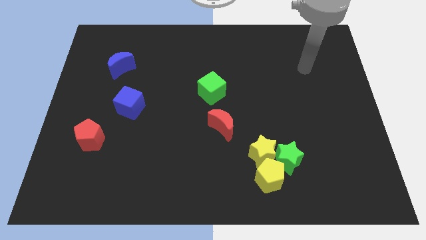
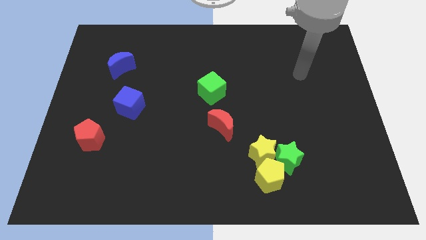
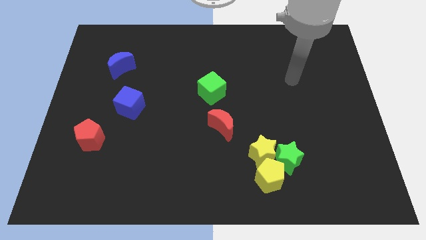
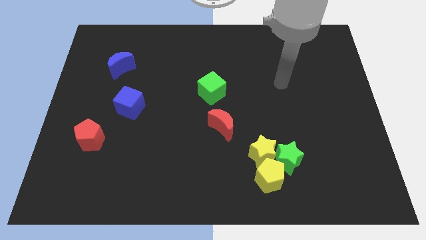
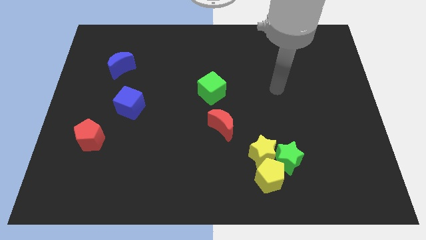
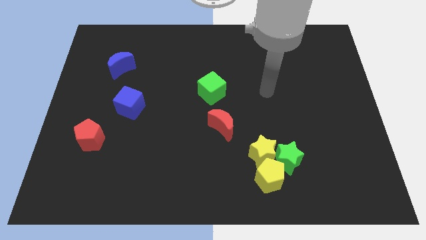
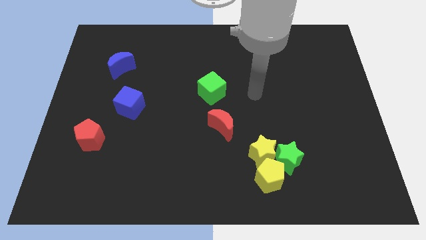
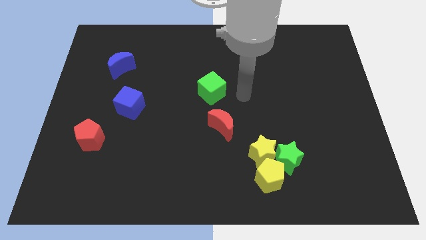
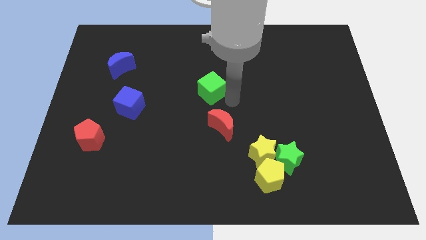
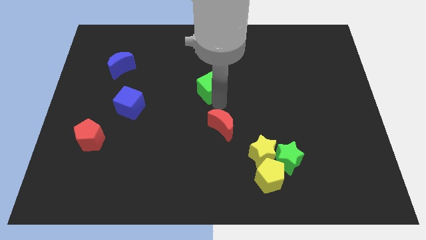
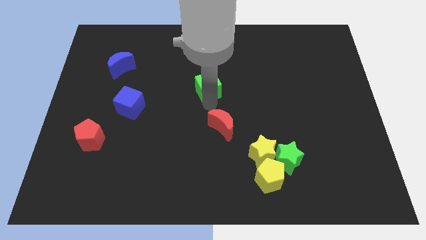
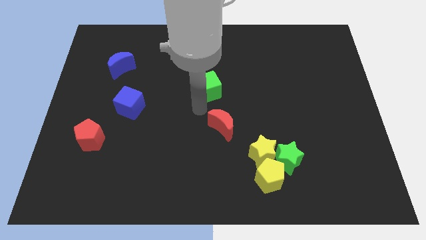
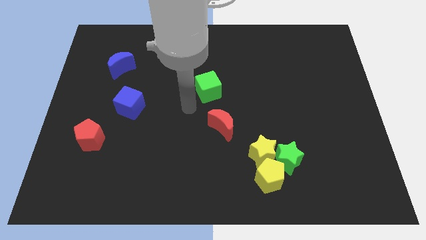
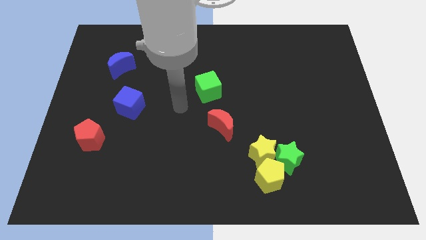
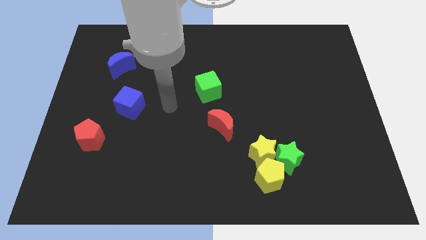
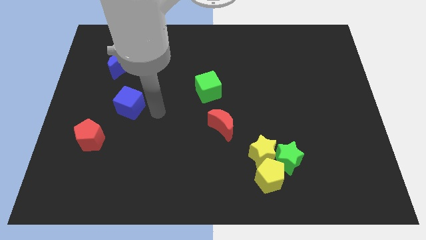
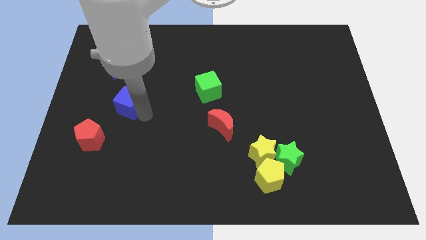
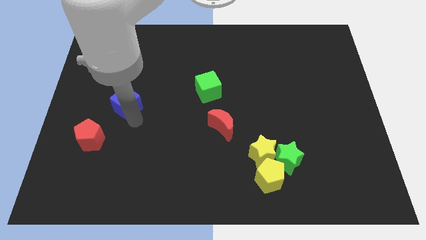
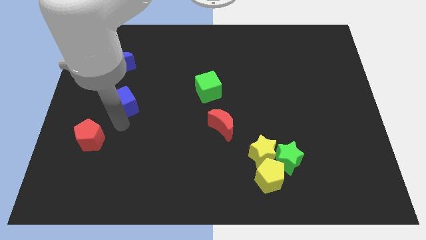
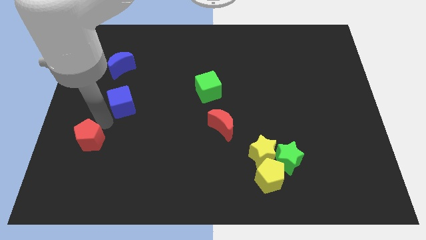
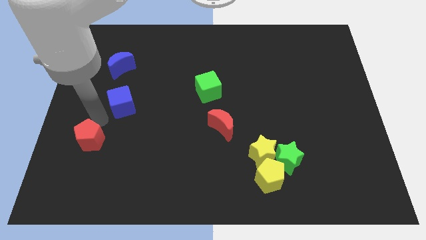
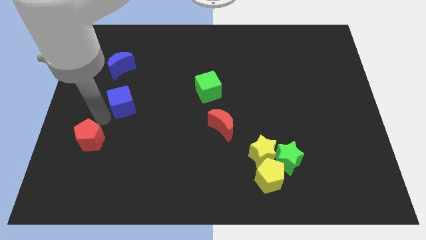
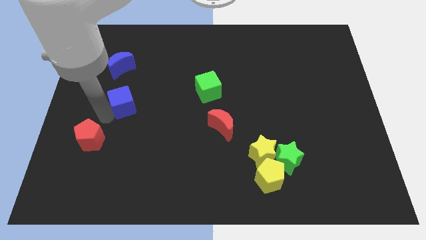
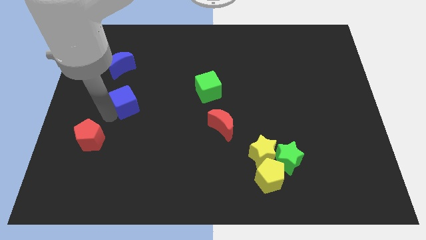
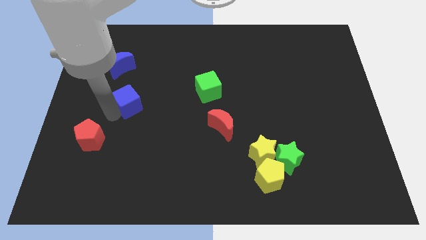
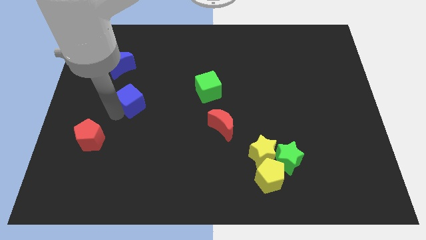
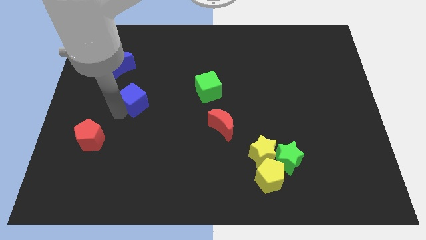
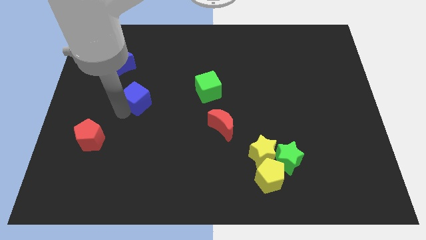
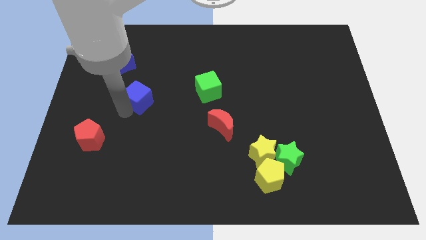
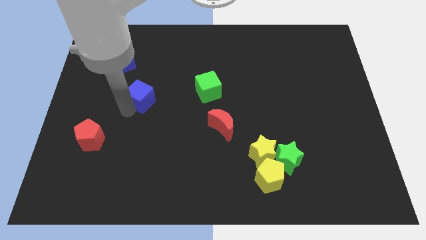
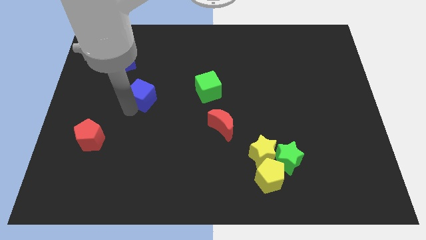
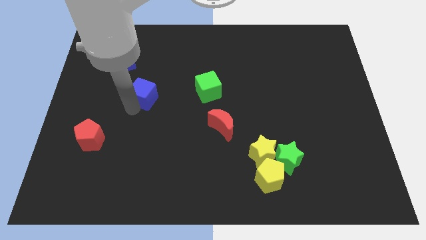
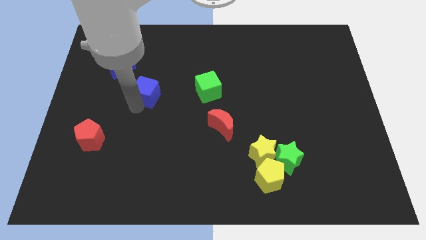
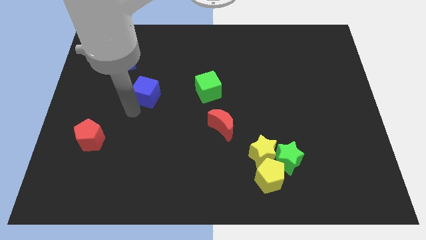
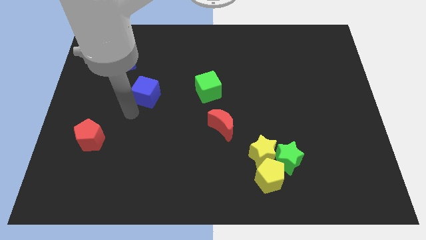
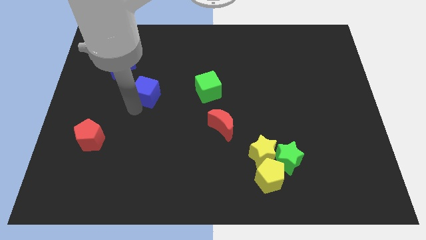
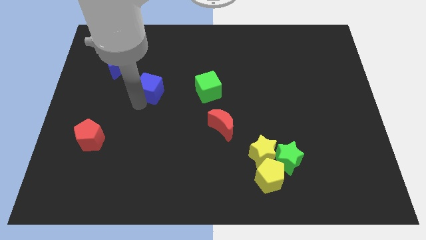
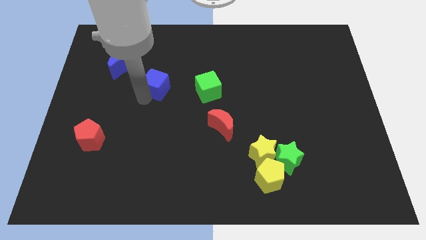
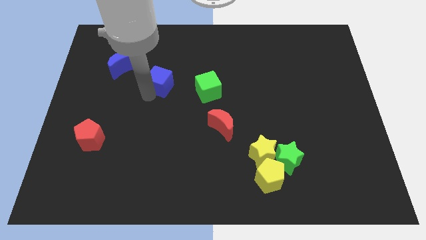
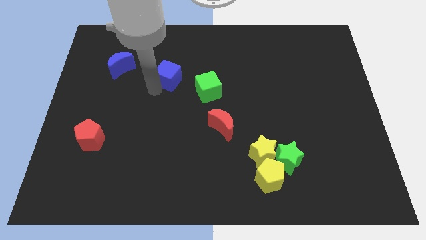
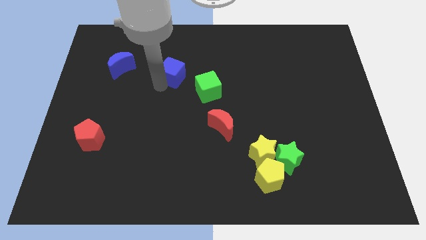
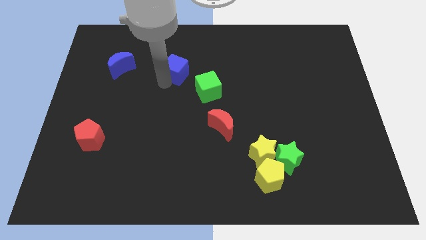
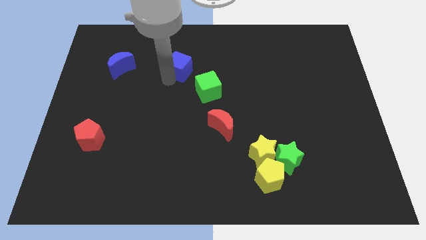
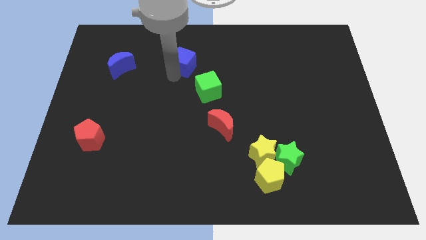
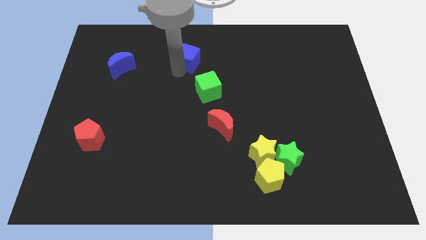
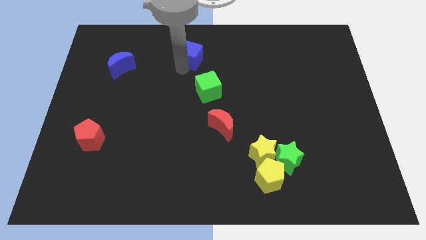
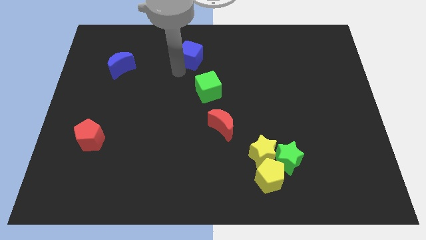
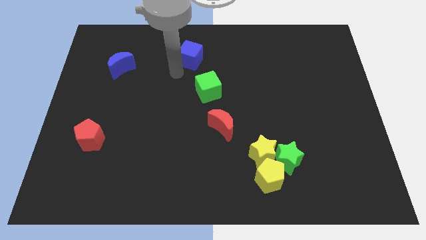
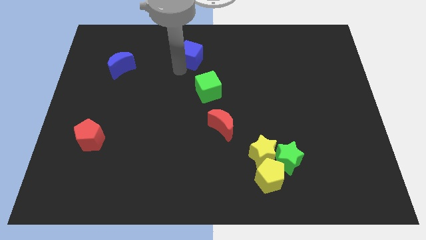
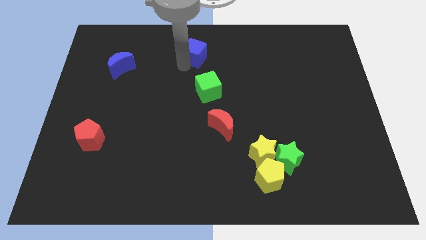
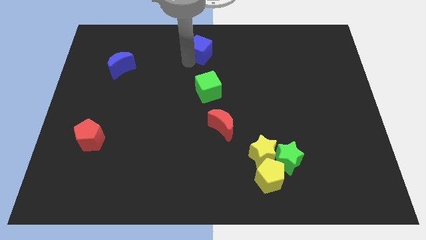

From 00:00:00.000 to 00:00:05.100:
slide the blue cube to the top side

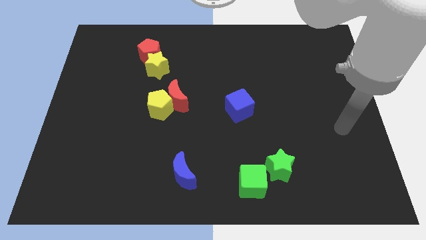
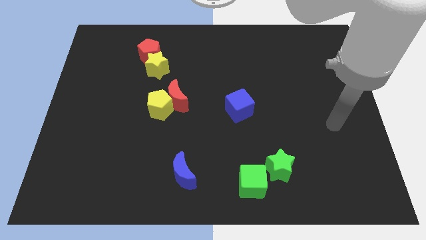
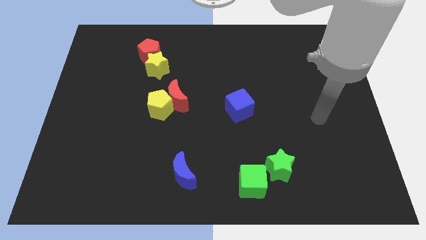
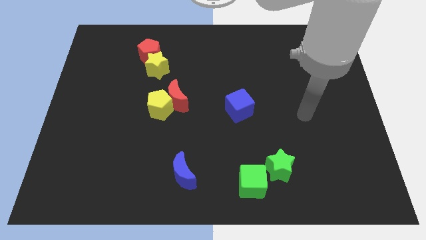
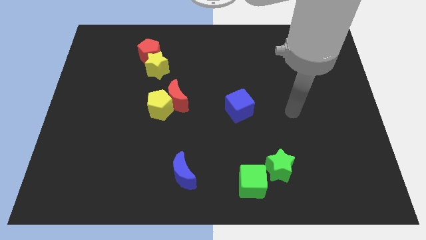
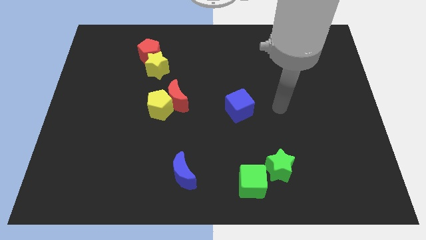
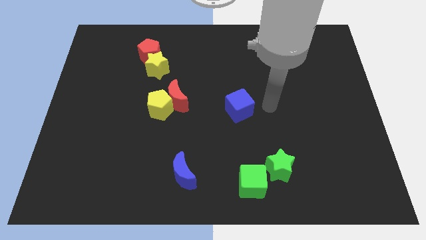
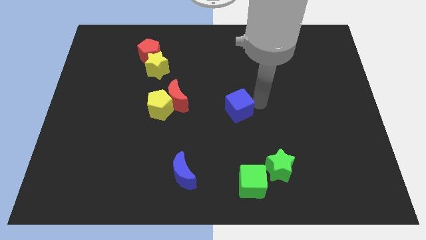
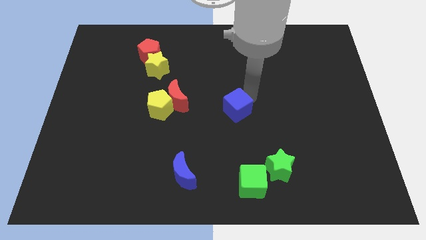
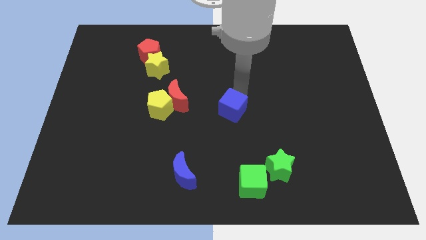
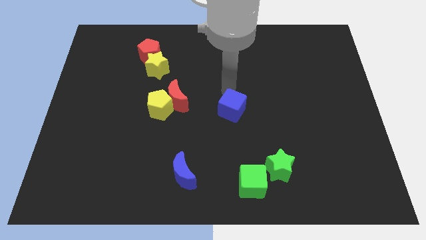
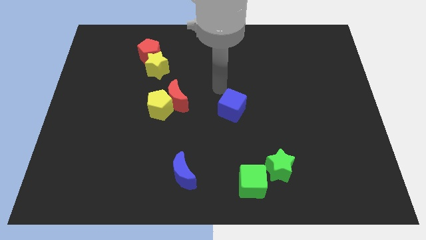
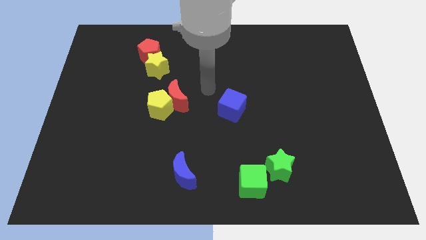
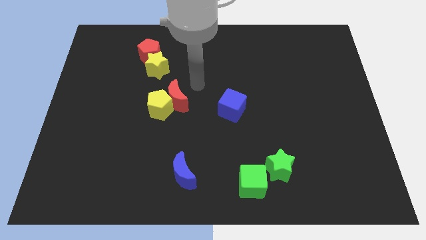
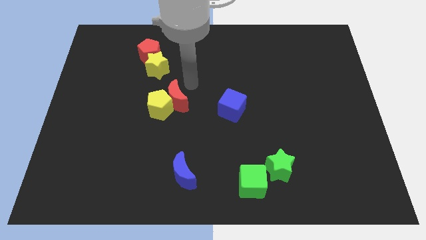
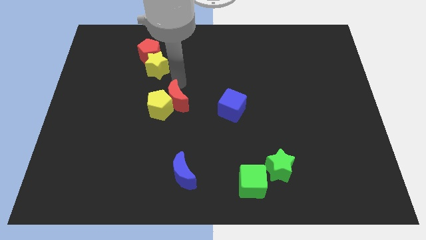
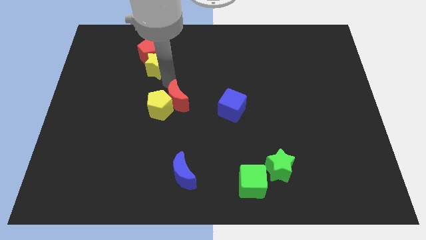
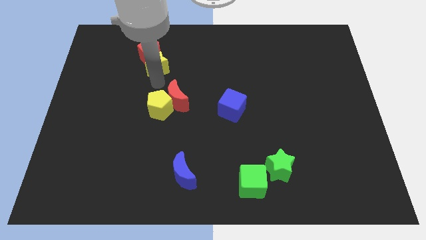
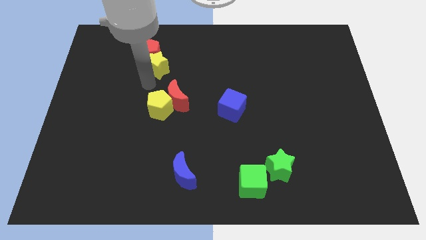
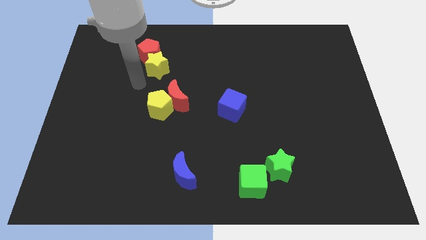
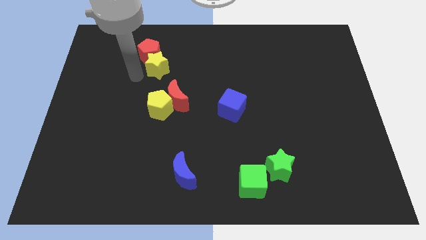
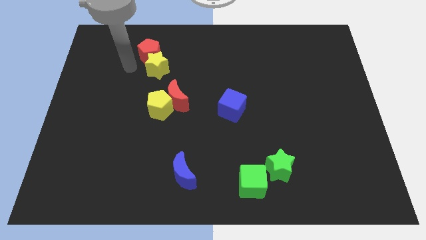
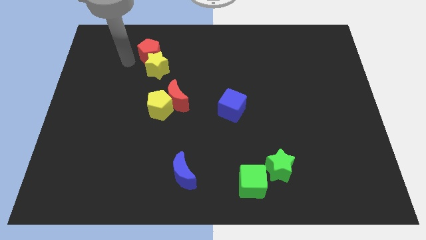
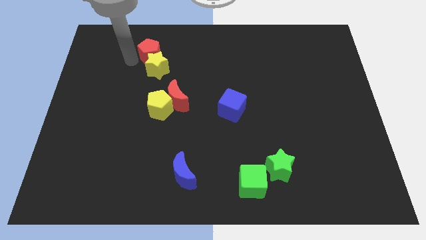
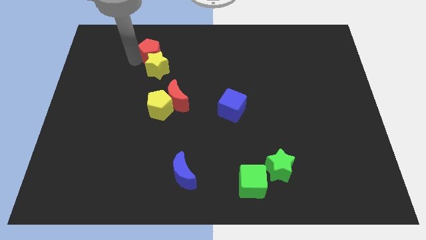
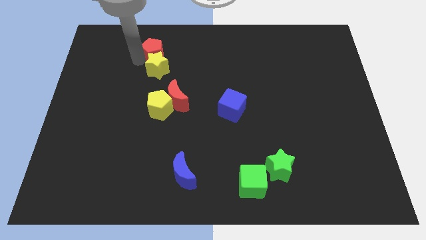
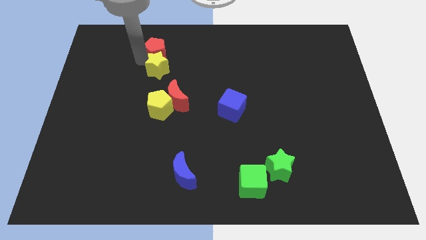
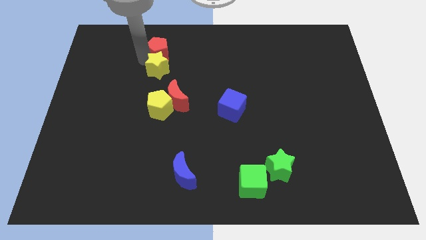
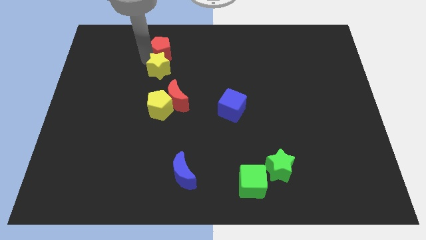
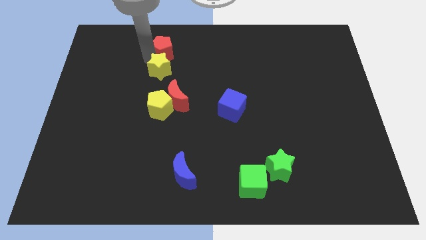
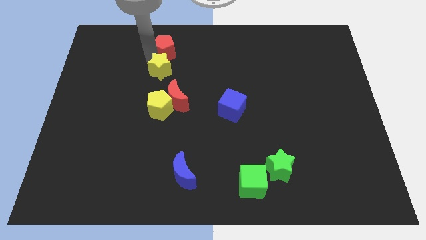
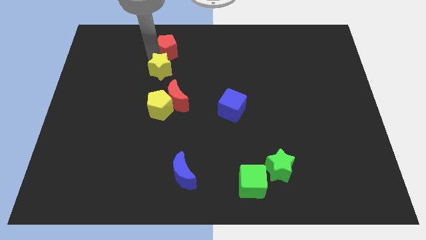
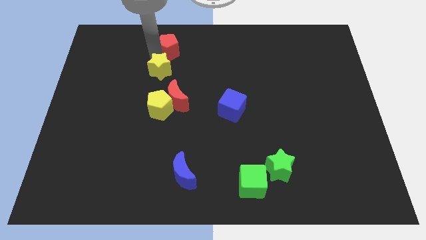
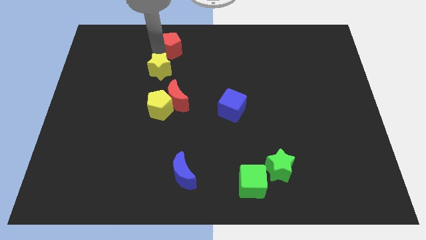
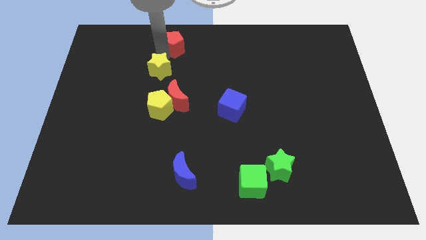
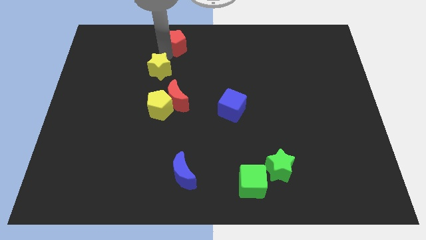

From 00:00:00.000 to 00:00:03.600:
move the red pentagon to the towards your base
